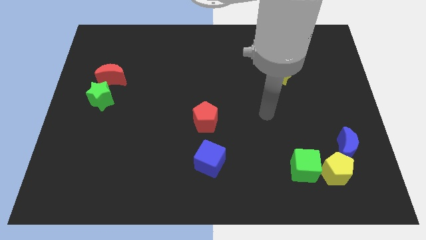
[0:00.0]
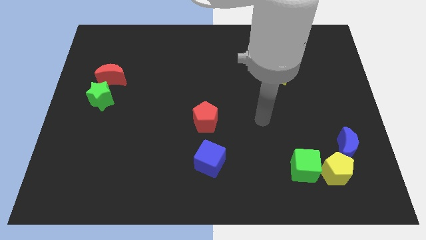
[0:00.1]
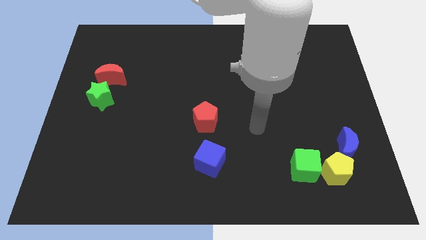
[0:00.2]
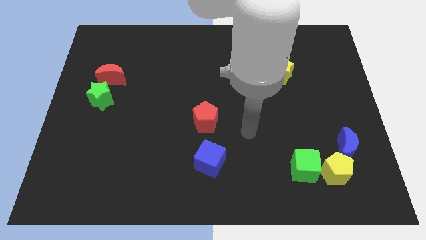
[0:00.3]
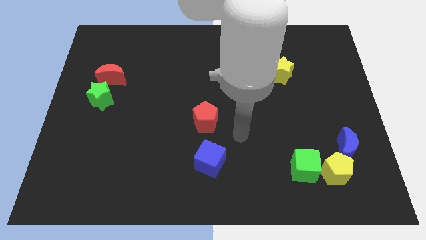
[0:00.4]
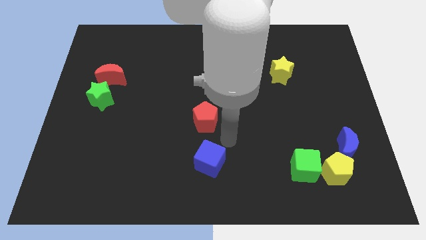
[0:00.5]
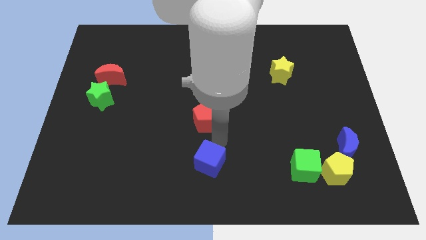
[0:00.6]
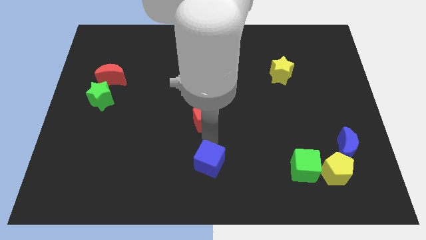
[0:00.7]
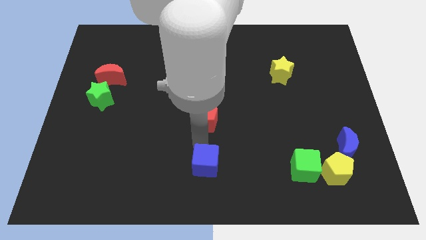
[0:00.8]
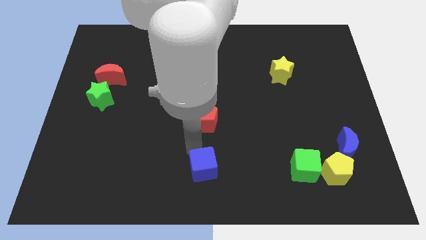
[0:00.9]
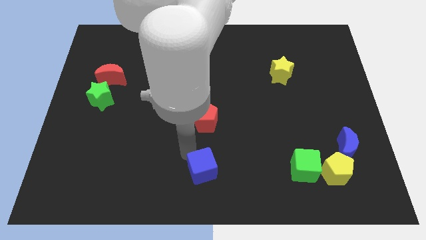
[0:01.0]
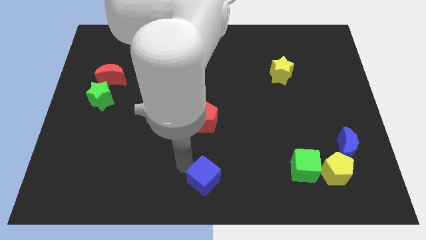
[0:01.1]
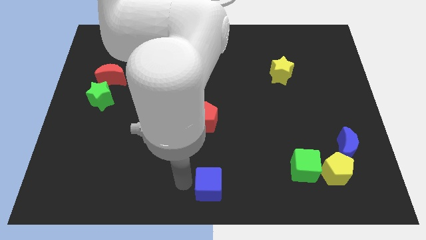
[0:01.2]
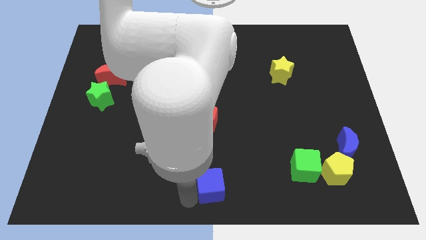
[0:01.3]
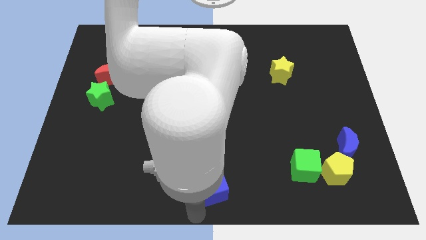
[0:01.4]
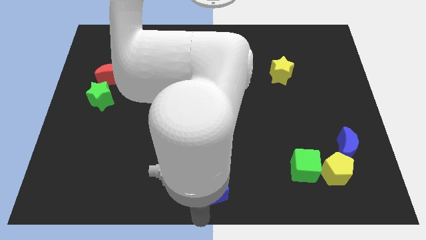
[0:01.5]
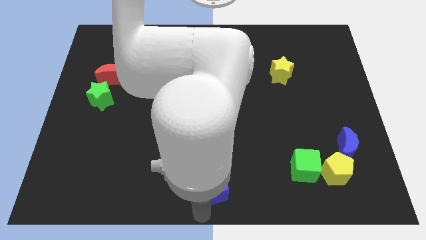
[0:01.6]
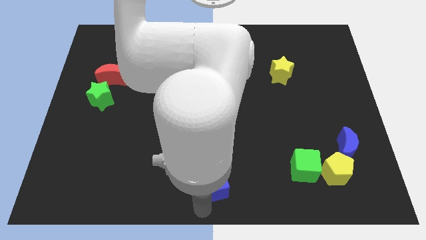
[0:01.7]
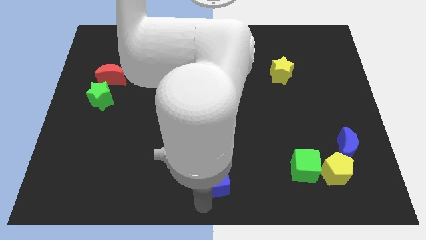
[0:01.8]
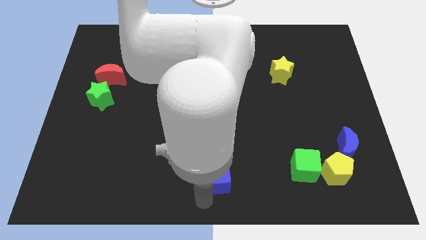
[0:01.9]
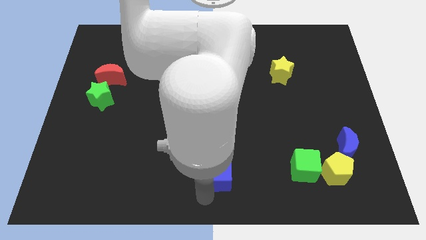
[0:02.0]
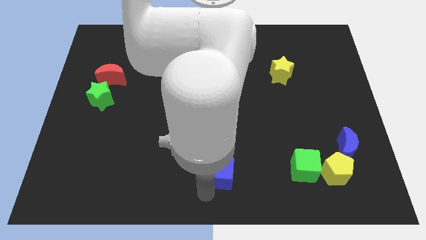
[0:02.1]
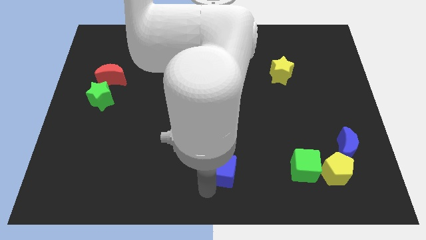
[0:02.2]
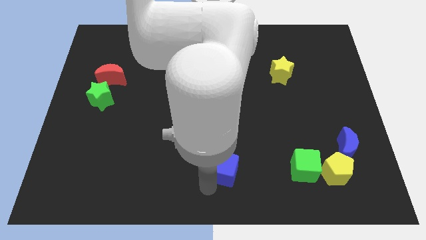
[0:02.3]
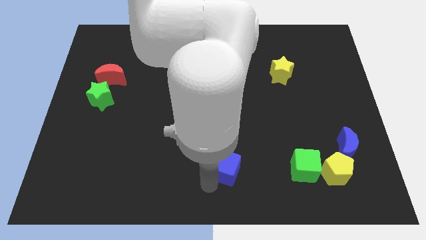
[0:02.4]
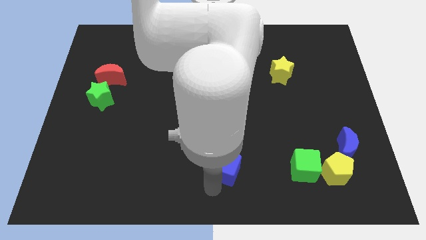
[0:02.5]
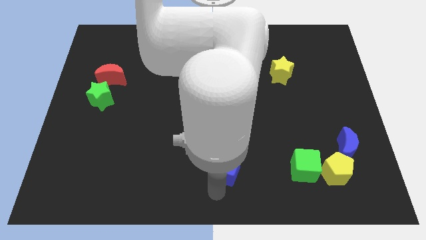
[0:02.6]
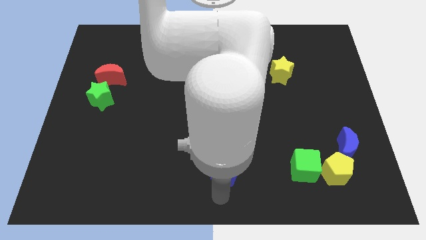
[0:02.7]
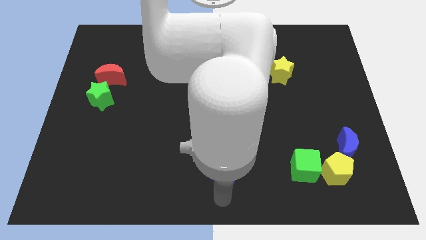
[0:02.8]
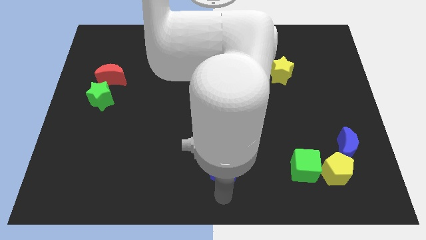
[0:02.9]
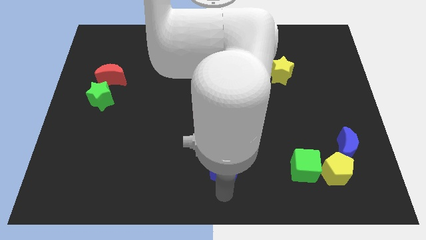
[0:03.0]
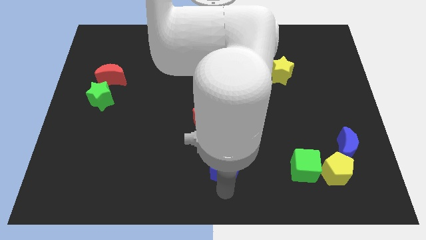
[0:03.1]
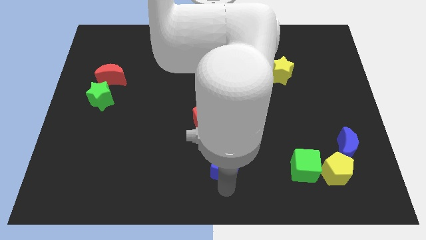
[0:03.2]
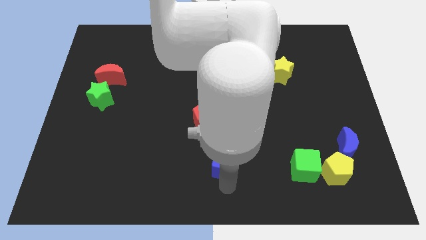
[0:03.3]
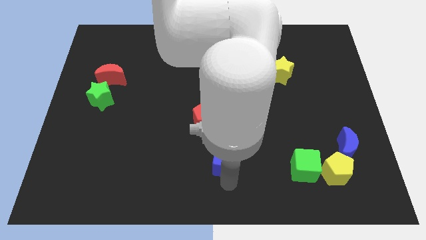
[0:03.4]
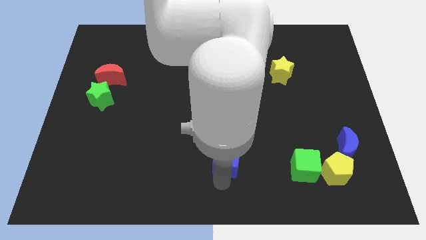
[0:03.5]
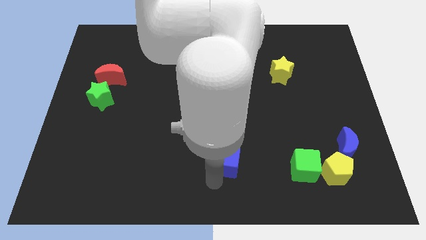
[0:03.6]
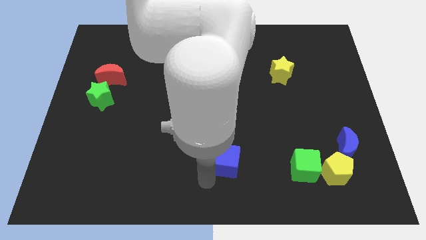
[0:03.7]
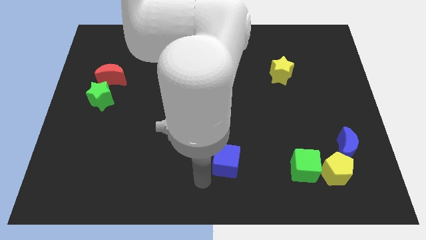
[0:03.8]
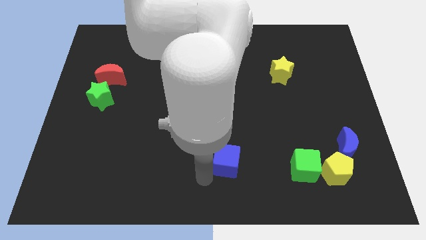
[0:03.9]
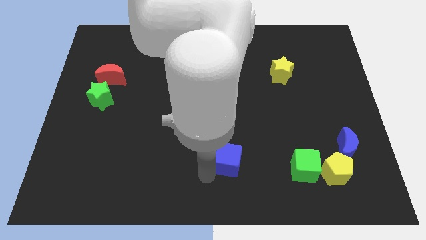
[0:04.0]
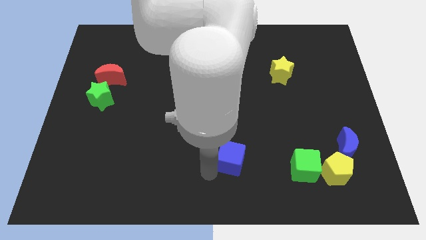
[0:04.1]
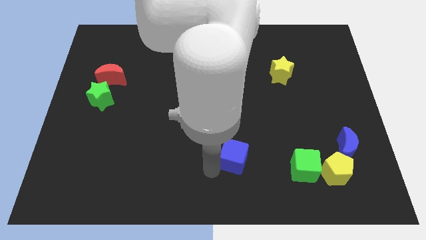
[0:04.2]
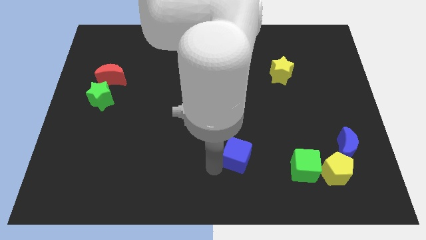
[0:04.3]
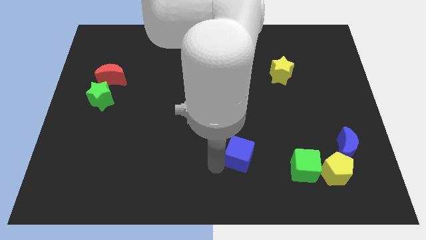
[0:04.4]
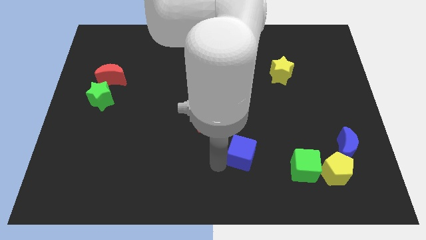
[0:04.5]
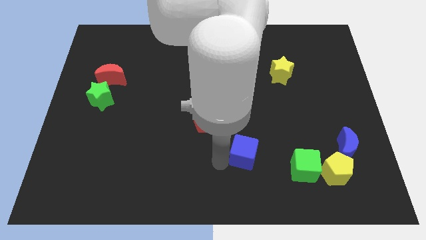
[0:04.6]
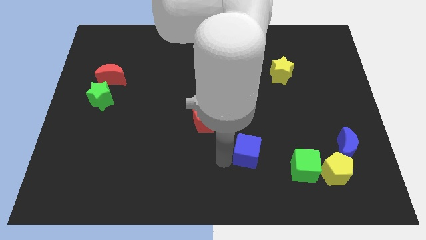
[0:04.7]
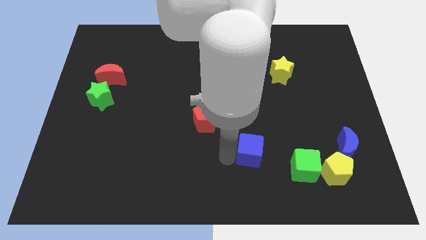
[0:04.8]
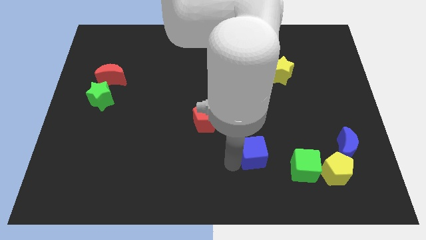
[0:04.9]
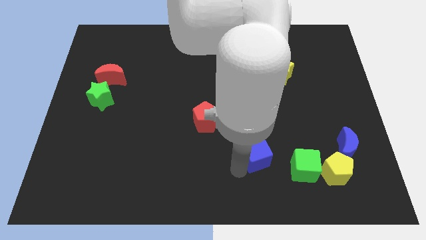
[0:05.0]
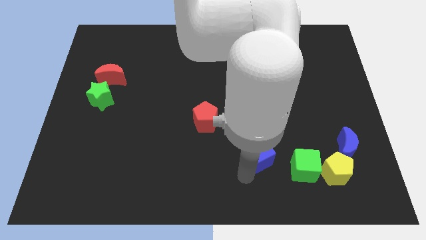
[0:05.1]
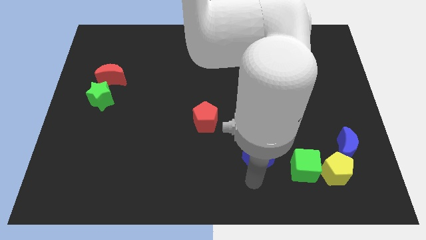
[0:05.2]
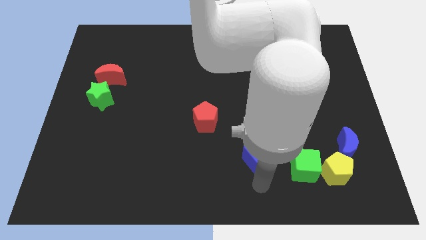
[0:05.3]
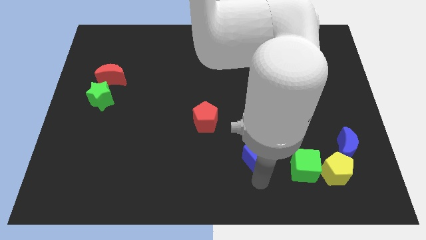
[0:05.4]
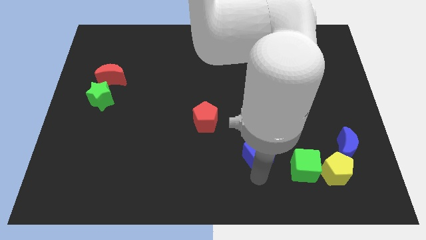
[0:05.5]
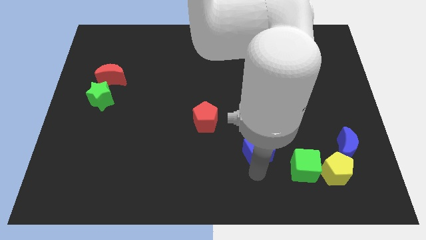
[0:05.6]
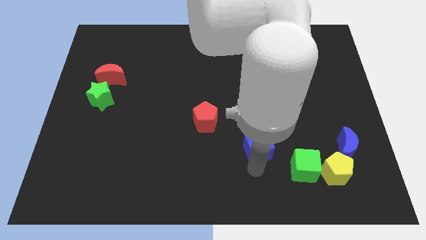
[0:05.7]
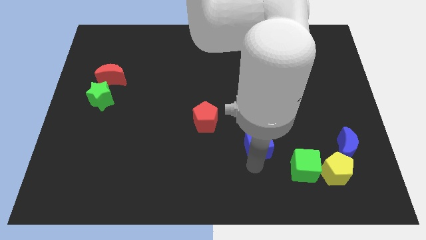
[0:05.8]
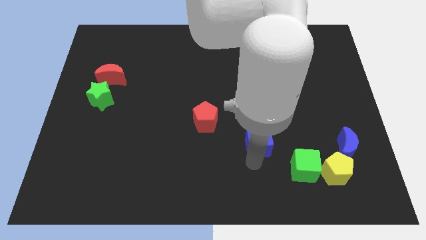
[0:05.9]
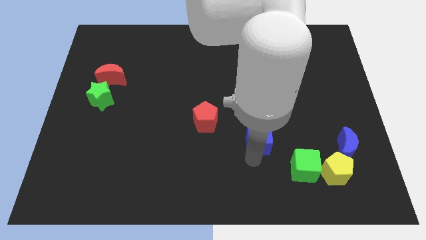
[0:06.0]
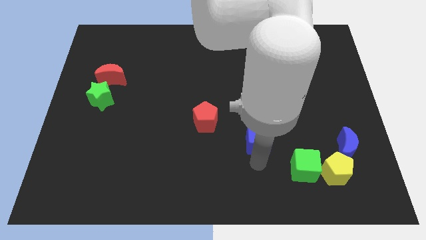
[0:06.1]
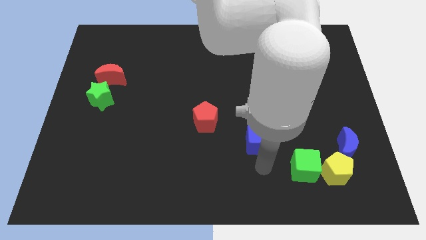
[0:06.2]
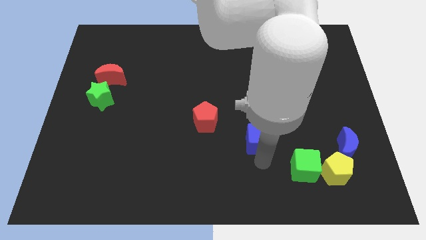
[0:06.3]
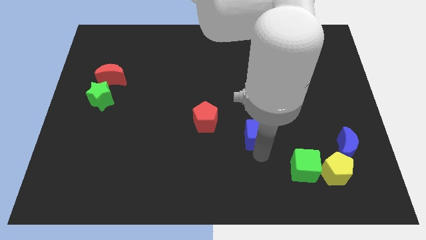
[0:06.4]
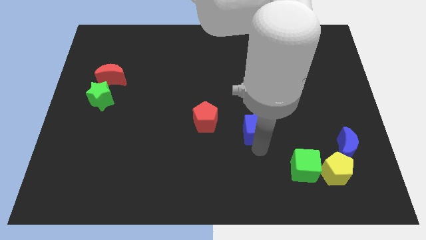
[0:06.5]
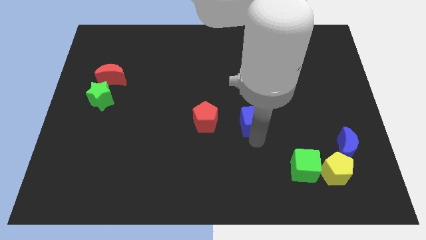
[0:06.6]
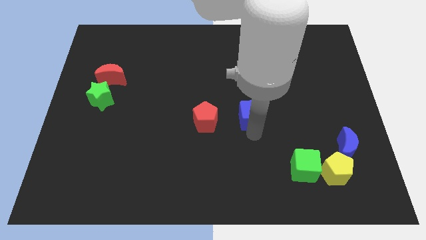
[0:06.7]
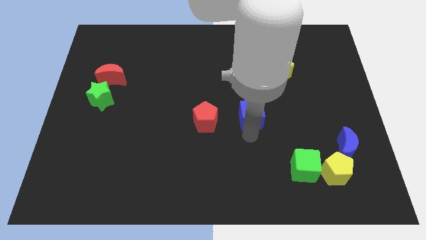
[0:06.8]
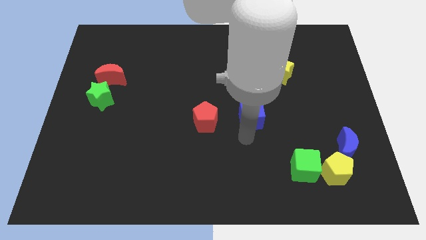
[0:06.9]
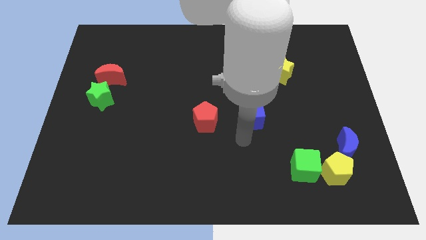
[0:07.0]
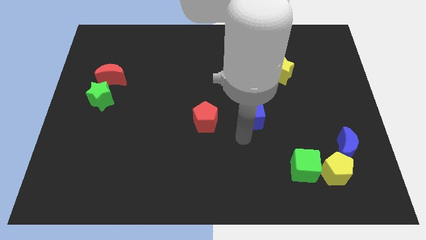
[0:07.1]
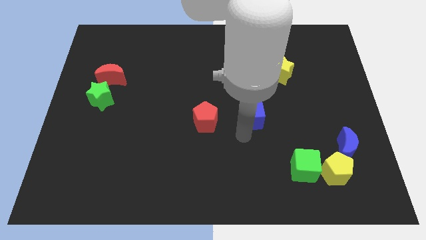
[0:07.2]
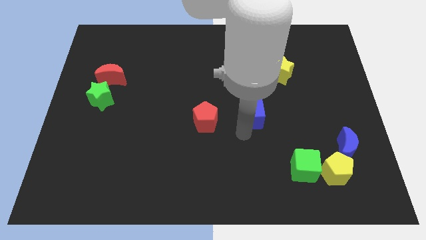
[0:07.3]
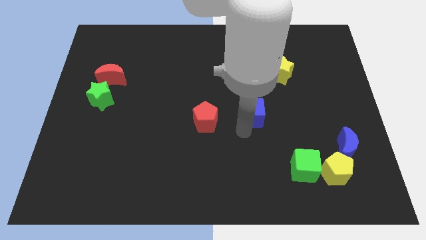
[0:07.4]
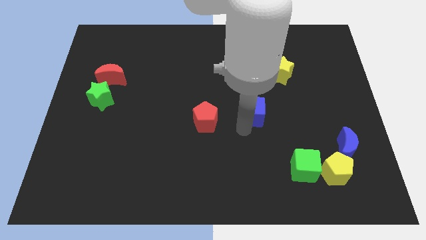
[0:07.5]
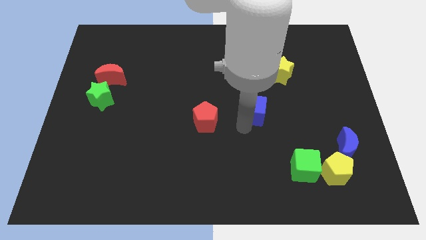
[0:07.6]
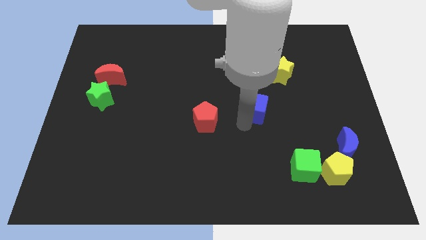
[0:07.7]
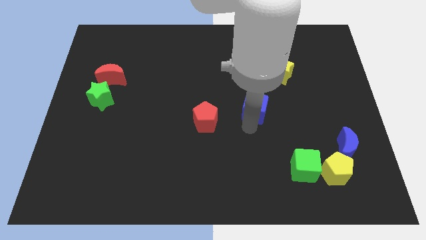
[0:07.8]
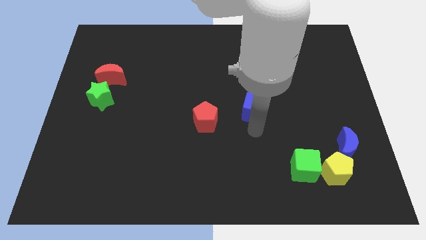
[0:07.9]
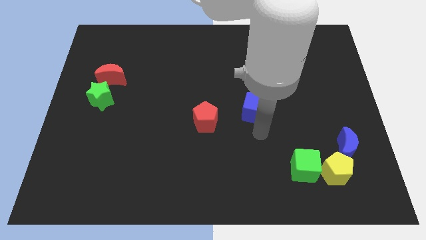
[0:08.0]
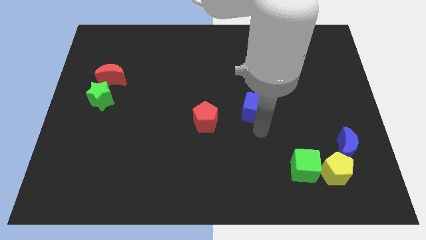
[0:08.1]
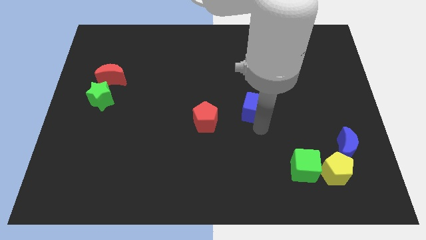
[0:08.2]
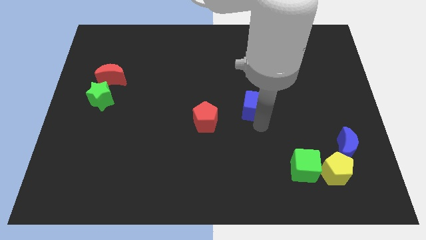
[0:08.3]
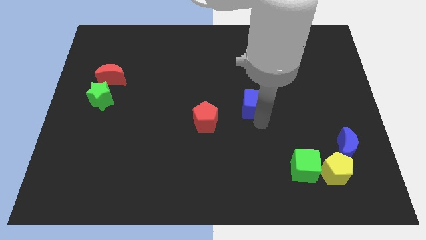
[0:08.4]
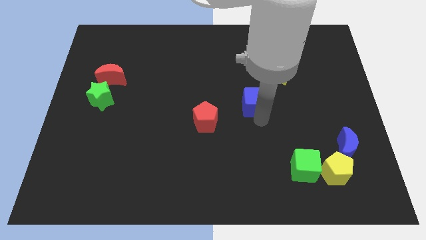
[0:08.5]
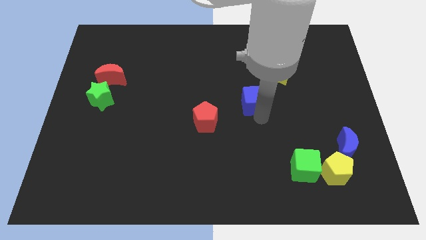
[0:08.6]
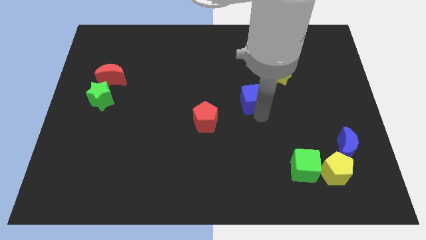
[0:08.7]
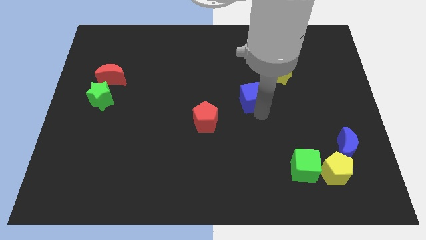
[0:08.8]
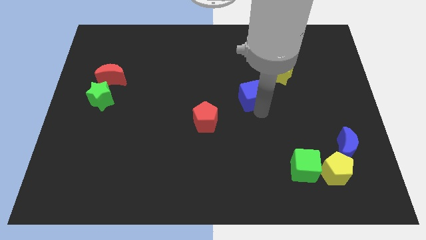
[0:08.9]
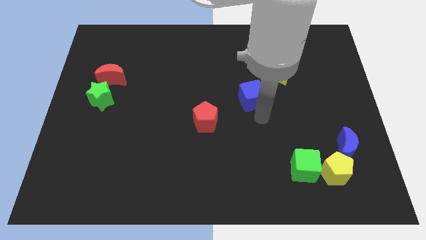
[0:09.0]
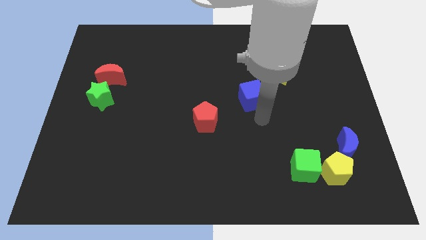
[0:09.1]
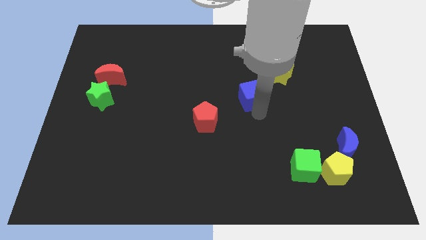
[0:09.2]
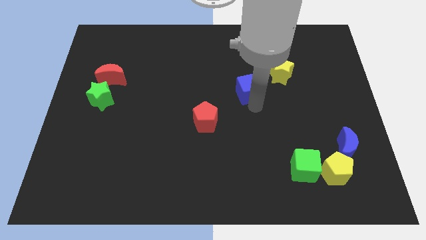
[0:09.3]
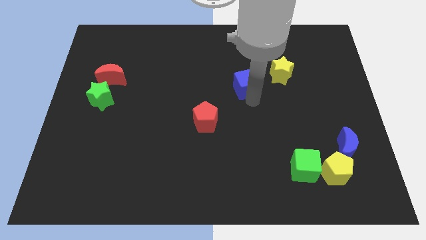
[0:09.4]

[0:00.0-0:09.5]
slide the blue cube to the left side of the yellow star
